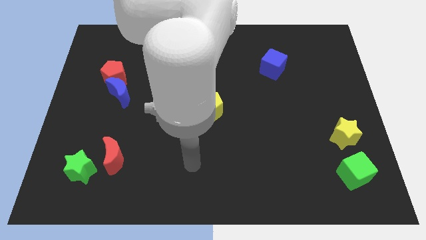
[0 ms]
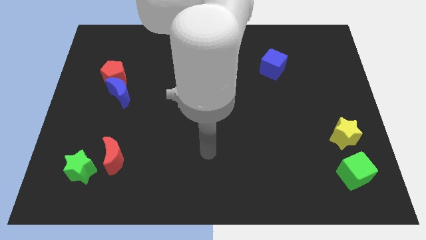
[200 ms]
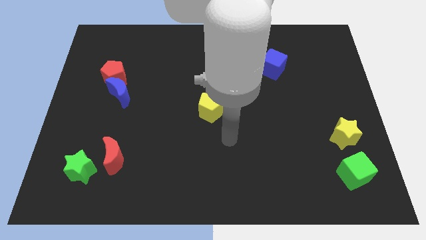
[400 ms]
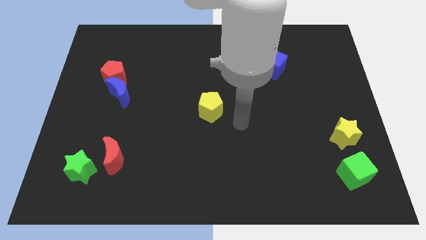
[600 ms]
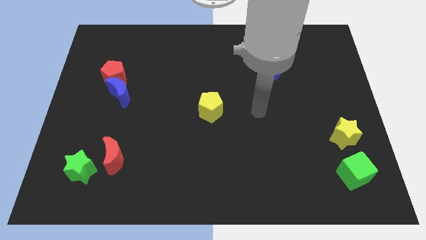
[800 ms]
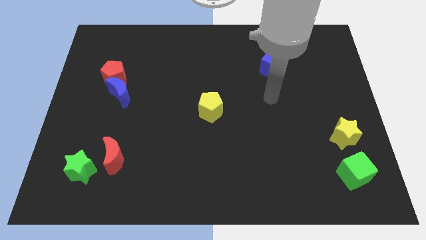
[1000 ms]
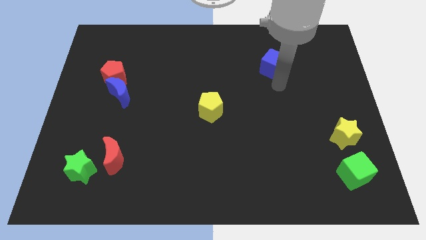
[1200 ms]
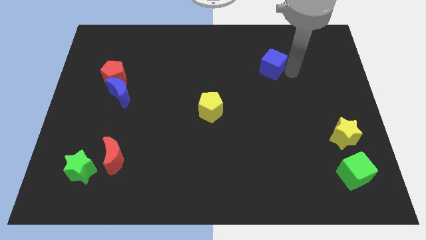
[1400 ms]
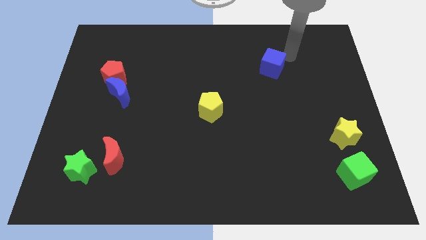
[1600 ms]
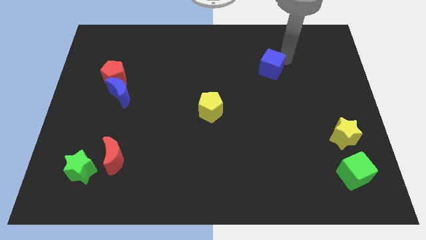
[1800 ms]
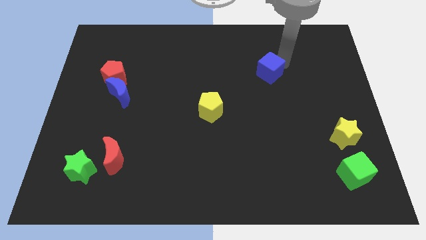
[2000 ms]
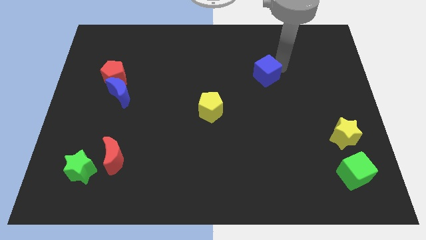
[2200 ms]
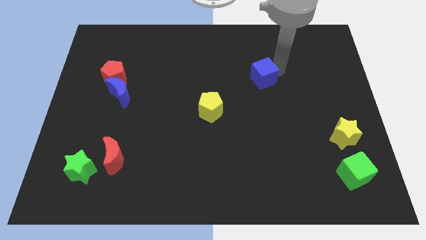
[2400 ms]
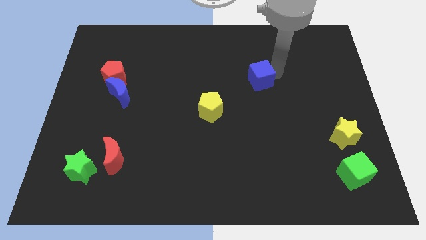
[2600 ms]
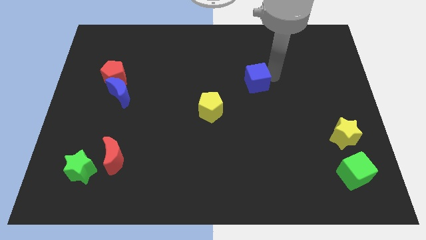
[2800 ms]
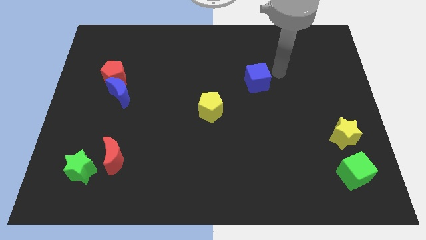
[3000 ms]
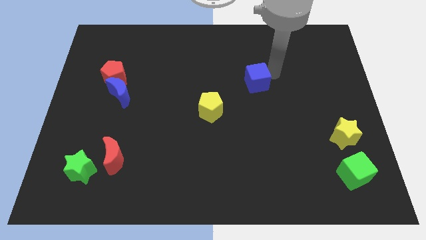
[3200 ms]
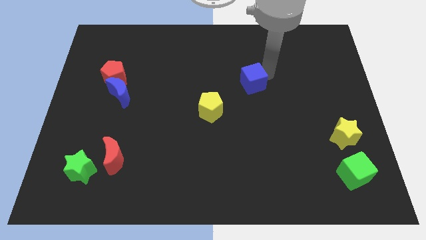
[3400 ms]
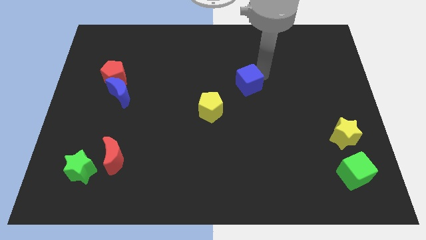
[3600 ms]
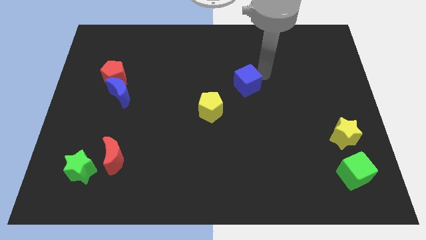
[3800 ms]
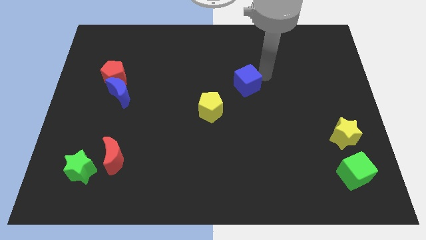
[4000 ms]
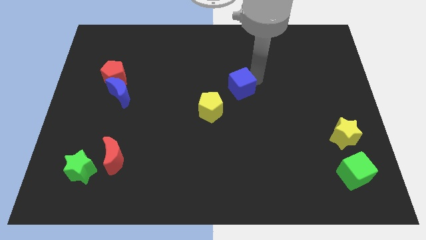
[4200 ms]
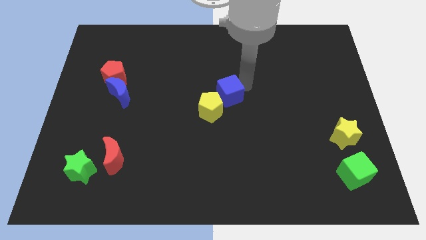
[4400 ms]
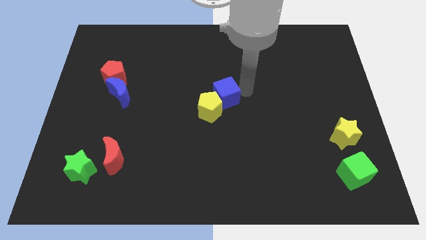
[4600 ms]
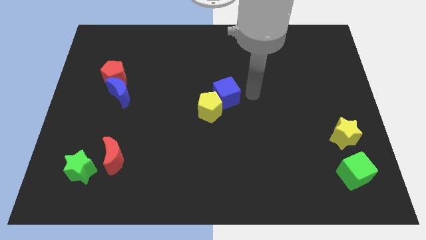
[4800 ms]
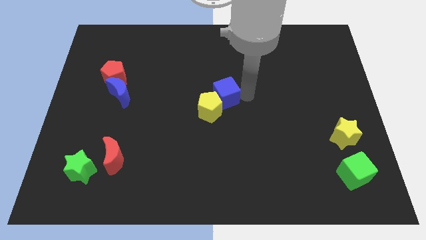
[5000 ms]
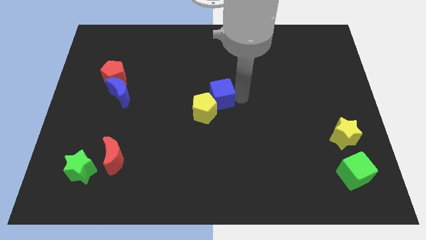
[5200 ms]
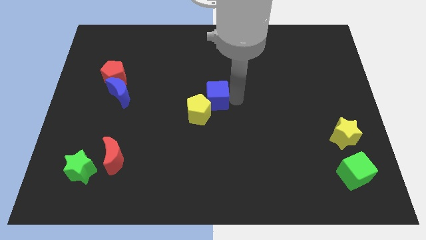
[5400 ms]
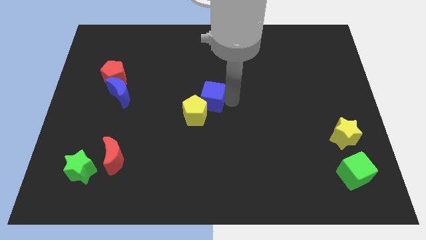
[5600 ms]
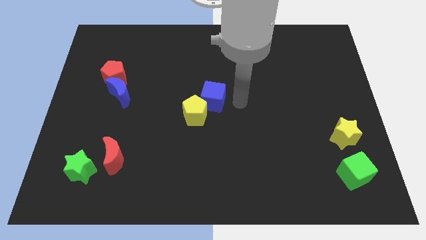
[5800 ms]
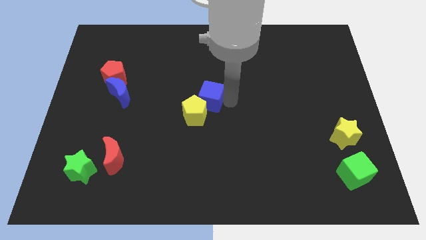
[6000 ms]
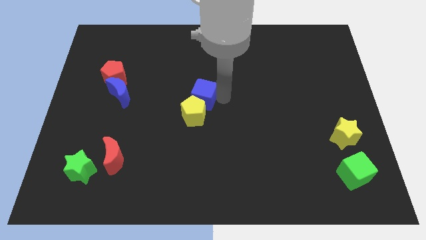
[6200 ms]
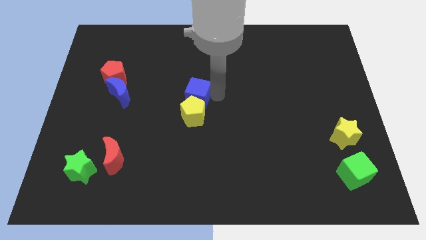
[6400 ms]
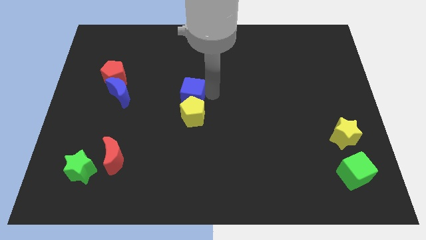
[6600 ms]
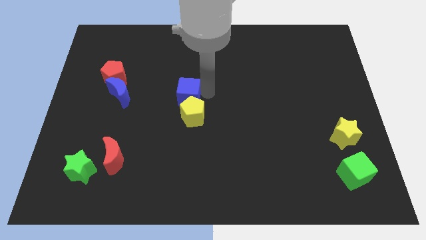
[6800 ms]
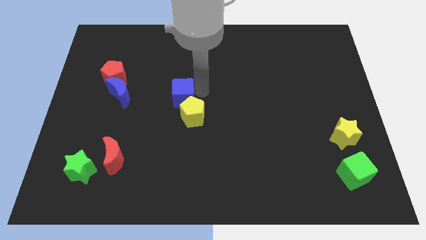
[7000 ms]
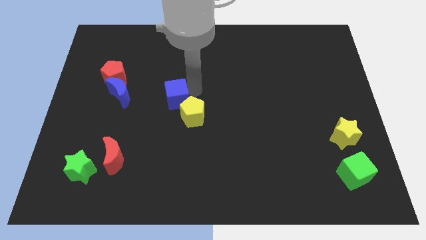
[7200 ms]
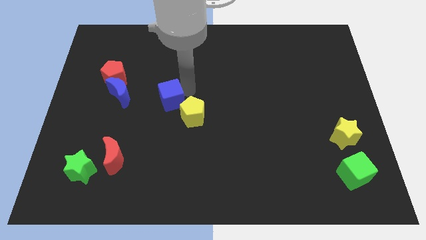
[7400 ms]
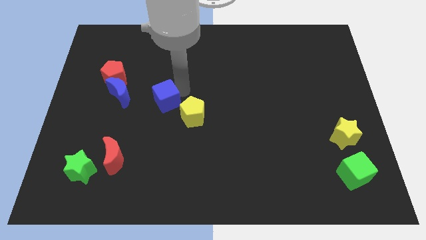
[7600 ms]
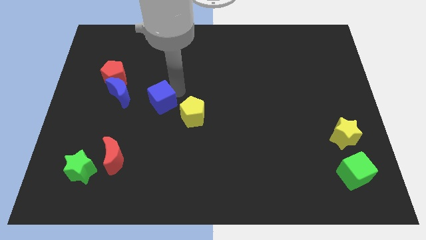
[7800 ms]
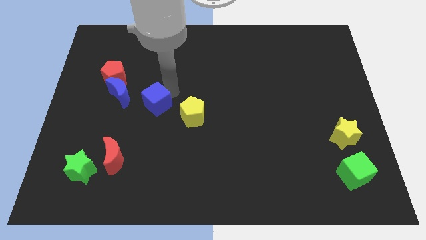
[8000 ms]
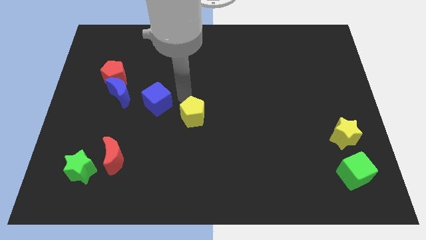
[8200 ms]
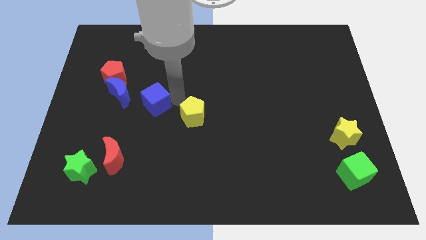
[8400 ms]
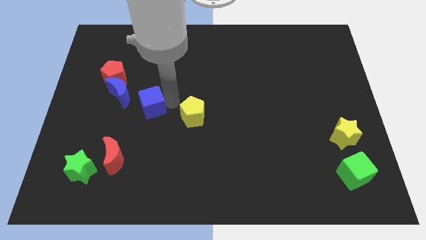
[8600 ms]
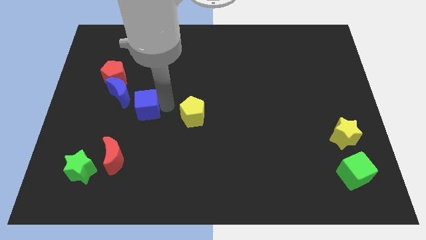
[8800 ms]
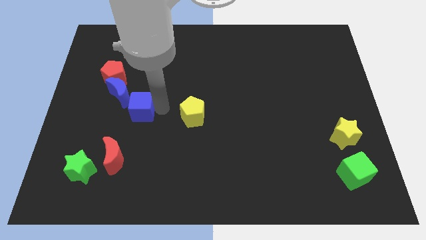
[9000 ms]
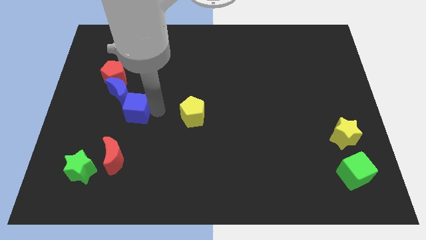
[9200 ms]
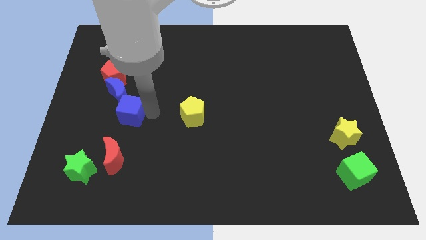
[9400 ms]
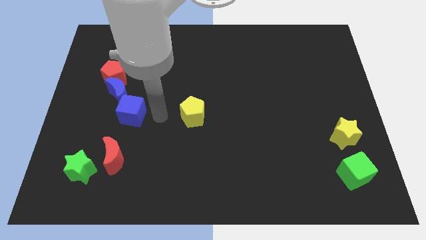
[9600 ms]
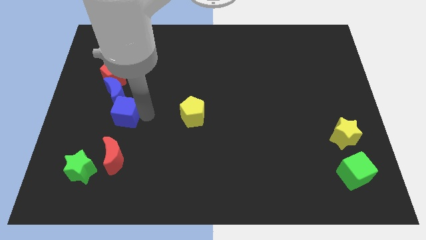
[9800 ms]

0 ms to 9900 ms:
move the blue cube to the bottom side of the red pentagon

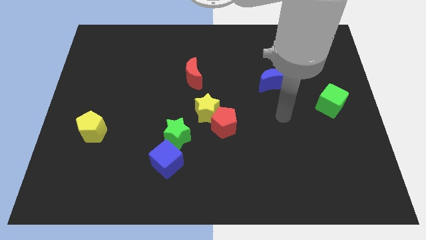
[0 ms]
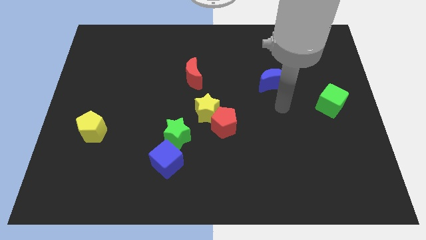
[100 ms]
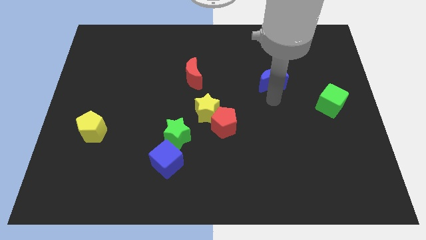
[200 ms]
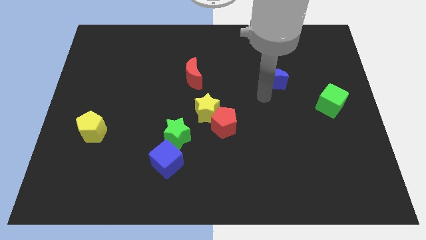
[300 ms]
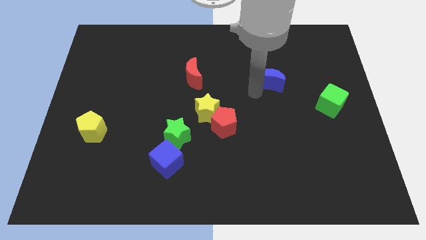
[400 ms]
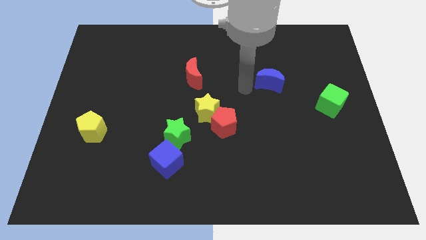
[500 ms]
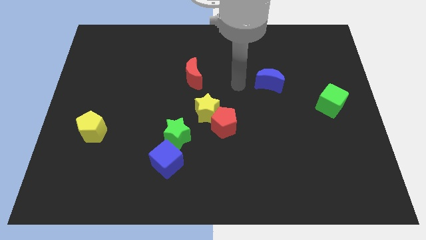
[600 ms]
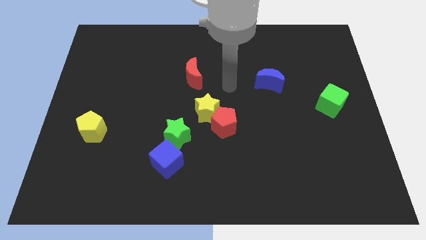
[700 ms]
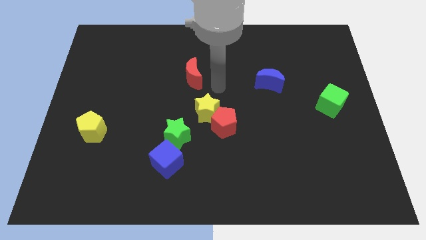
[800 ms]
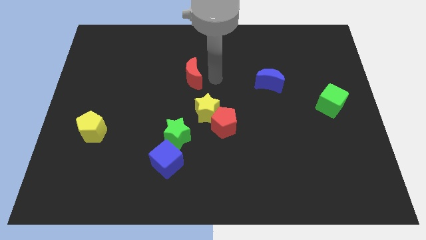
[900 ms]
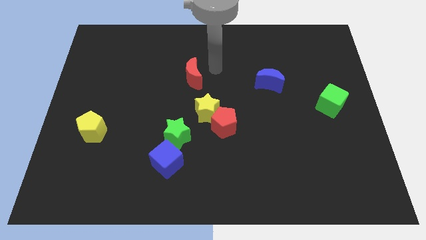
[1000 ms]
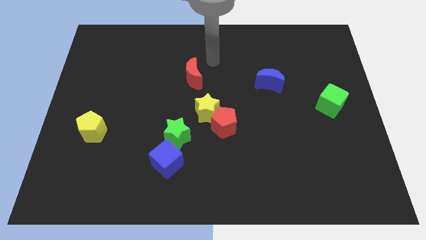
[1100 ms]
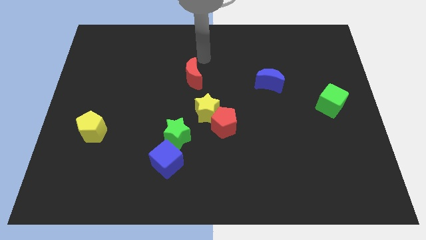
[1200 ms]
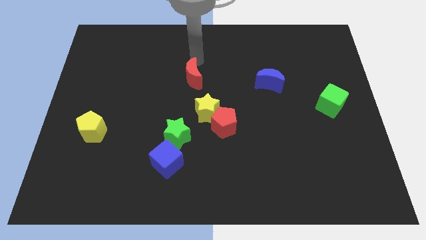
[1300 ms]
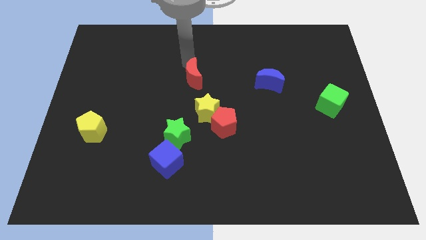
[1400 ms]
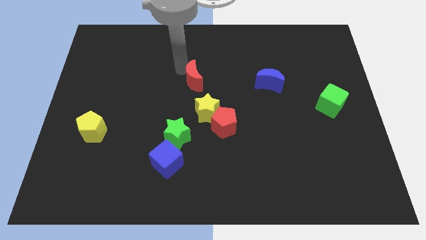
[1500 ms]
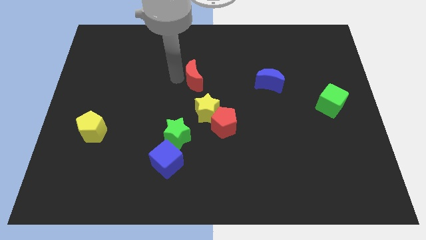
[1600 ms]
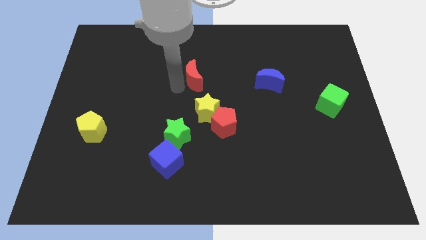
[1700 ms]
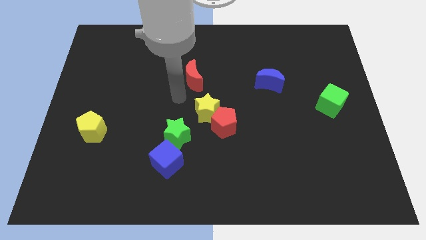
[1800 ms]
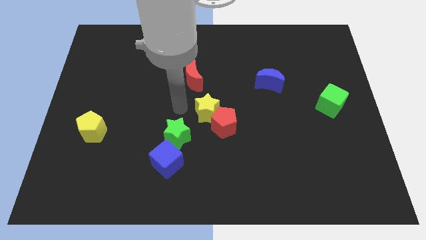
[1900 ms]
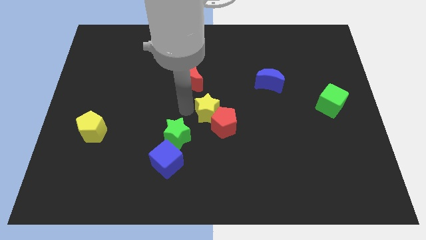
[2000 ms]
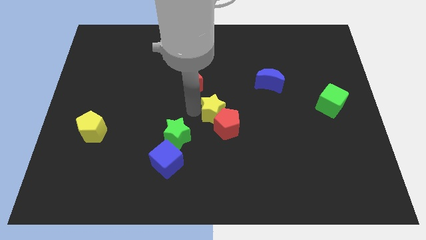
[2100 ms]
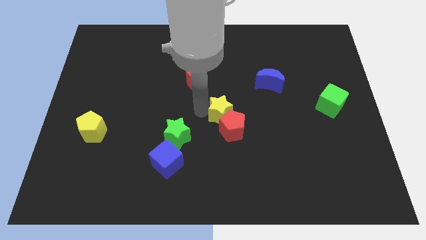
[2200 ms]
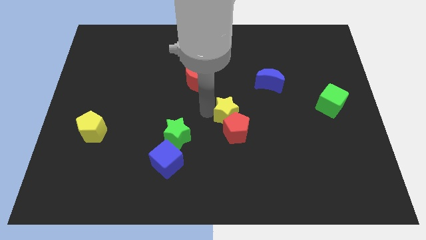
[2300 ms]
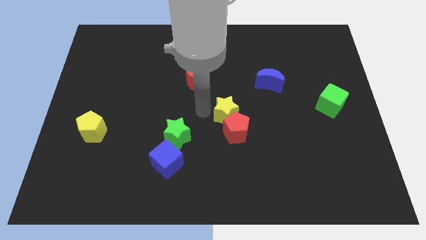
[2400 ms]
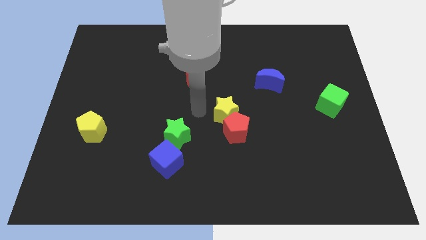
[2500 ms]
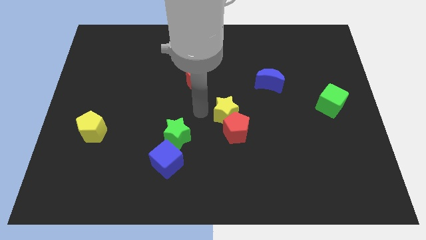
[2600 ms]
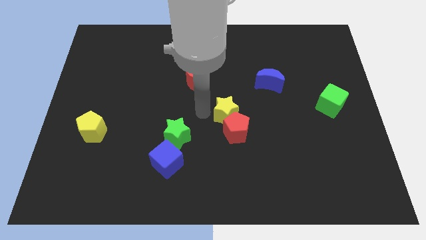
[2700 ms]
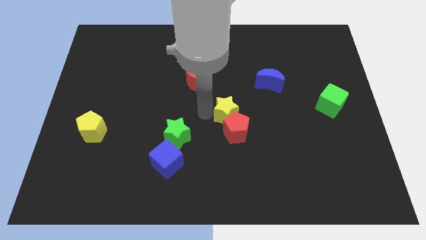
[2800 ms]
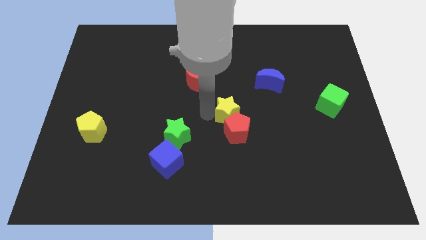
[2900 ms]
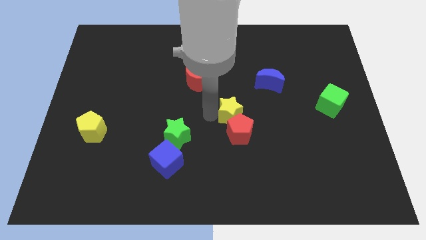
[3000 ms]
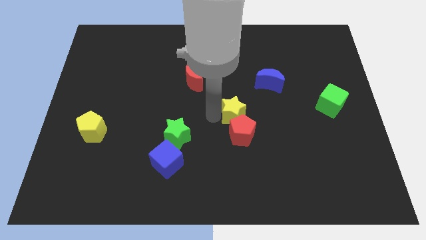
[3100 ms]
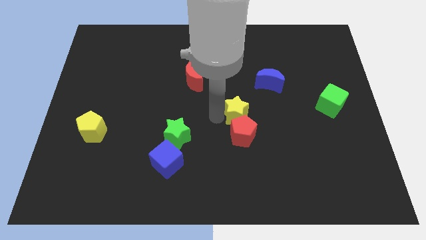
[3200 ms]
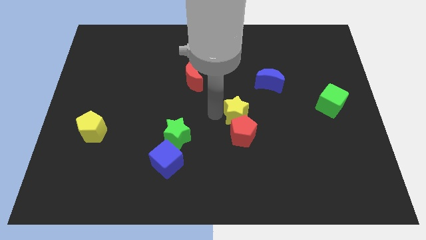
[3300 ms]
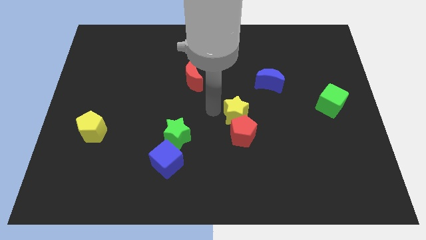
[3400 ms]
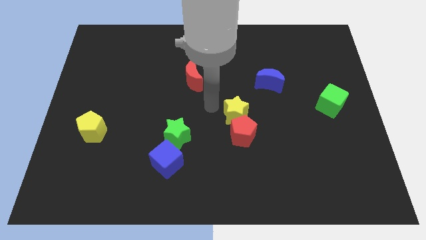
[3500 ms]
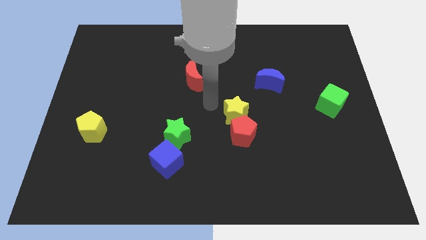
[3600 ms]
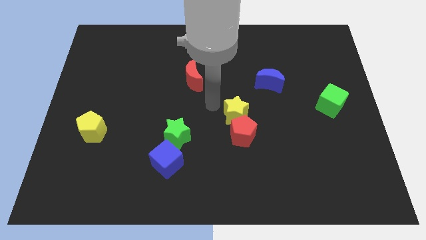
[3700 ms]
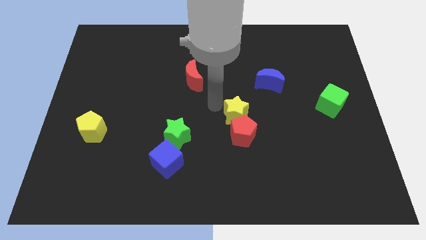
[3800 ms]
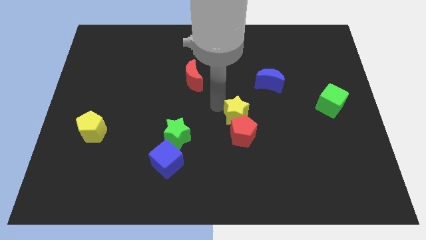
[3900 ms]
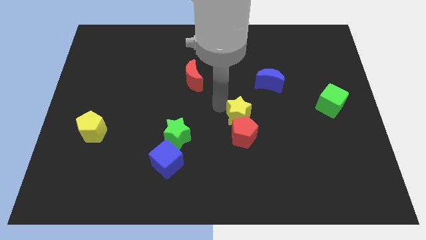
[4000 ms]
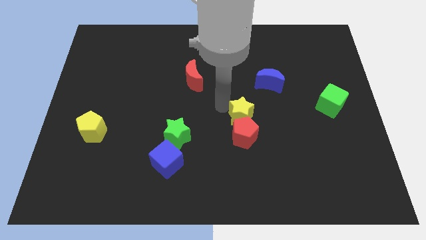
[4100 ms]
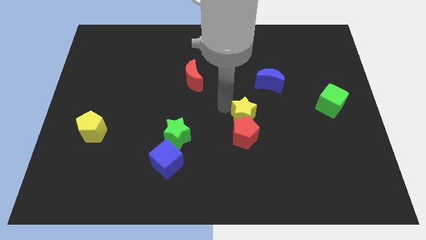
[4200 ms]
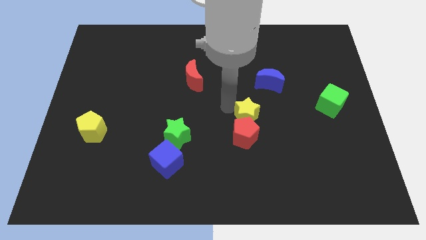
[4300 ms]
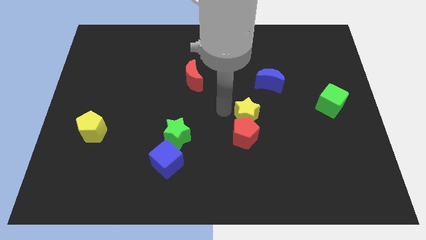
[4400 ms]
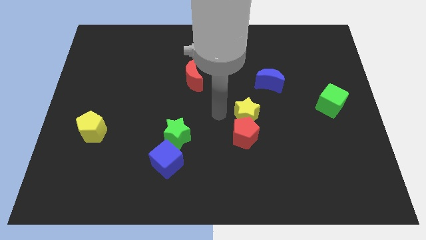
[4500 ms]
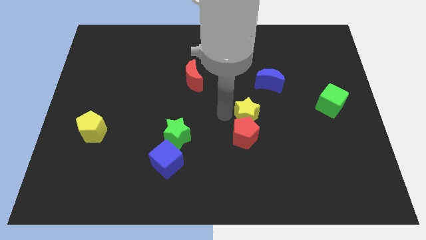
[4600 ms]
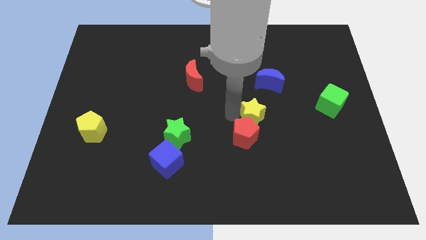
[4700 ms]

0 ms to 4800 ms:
push the yellow star to the bottom of the blue moon
